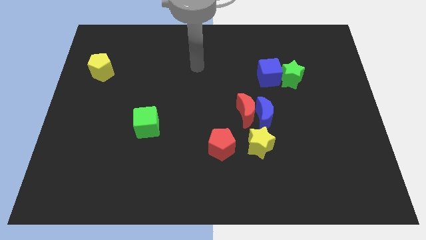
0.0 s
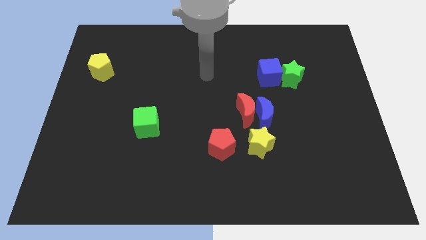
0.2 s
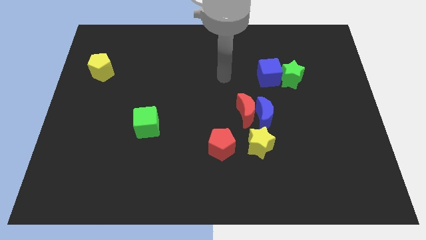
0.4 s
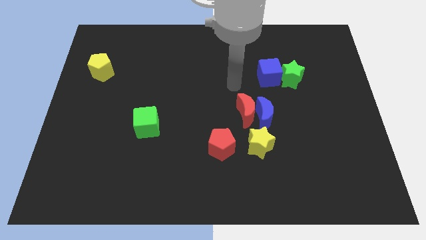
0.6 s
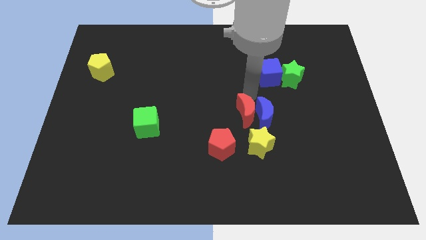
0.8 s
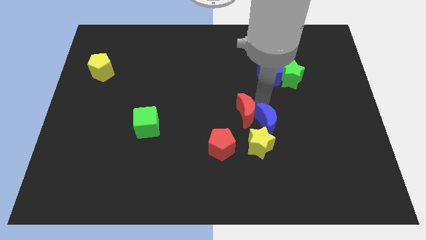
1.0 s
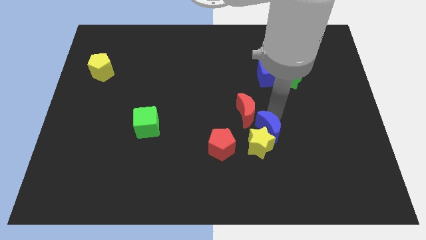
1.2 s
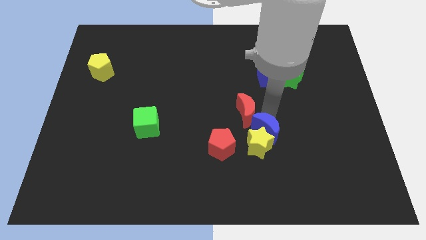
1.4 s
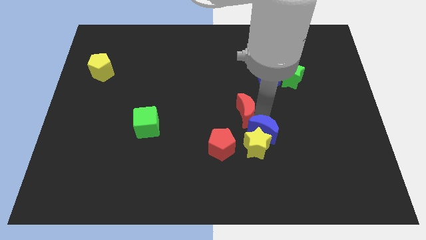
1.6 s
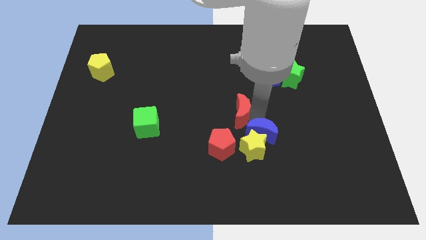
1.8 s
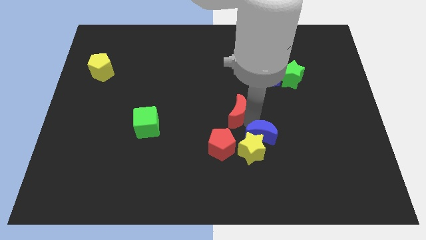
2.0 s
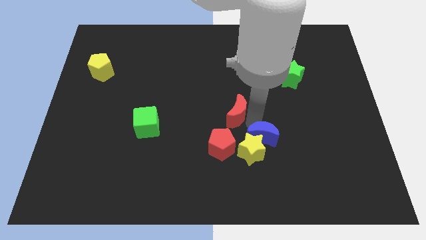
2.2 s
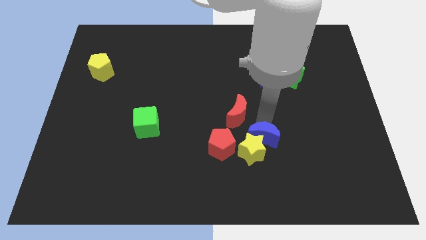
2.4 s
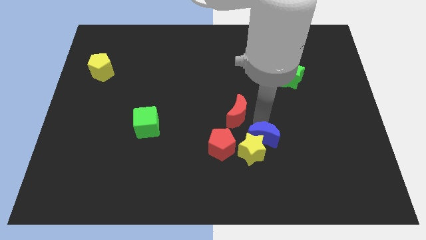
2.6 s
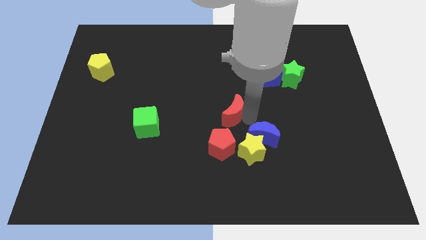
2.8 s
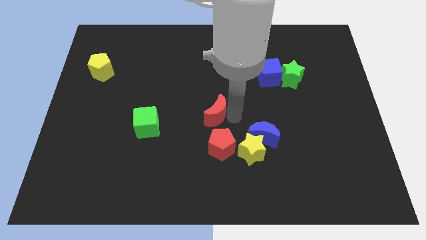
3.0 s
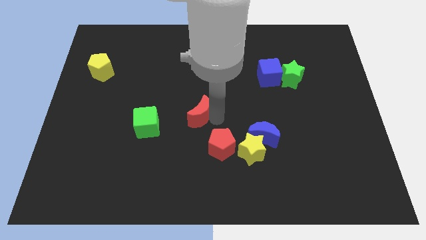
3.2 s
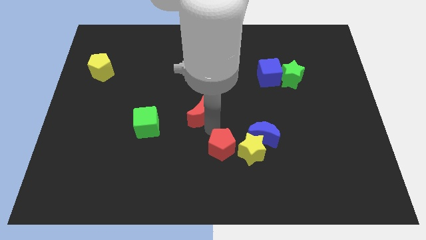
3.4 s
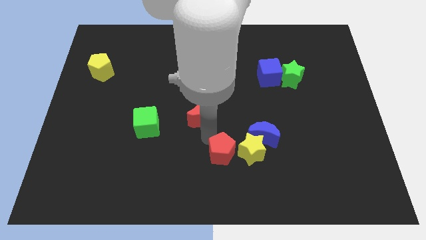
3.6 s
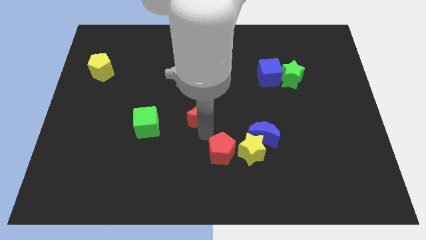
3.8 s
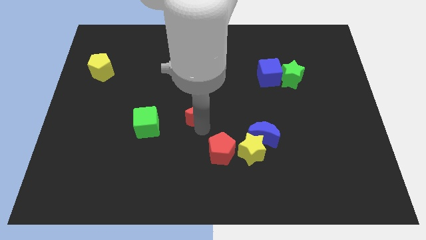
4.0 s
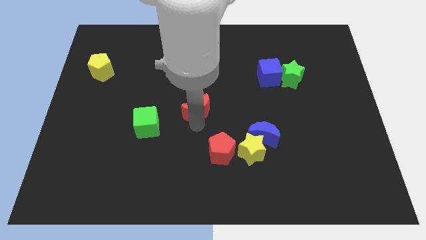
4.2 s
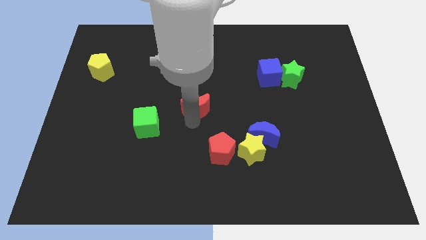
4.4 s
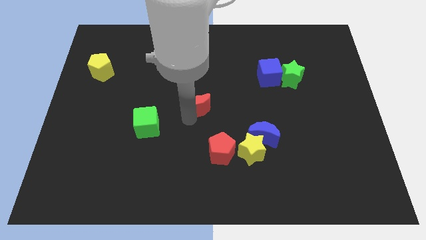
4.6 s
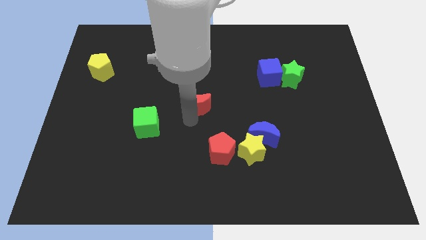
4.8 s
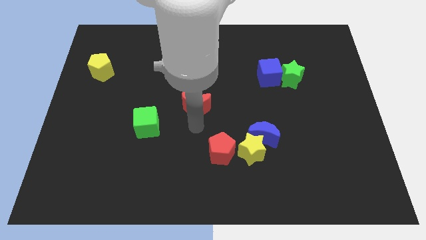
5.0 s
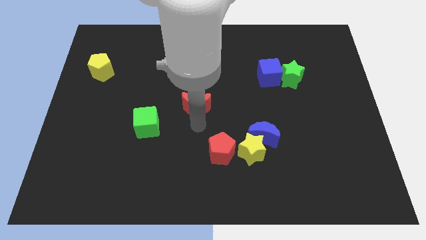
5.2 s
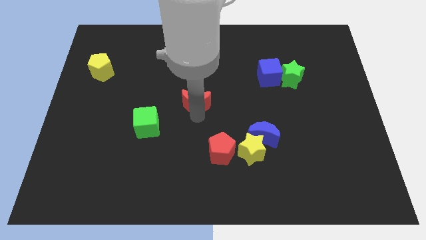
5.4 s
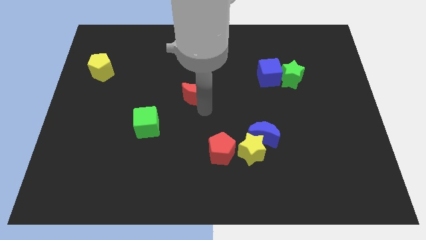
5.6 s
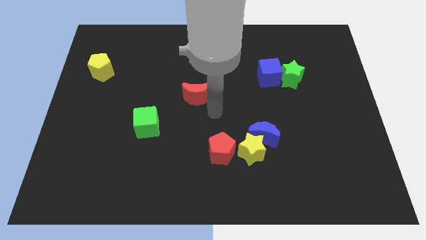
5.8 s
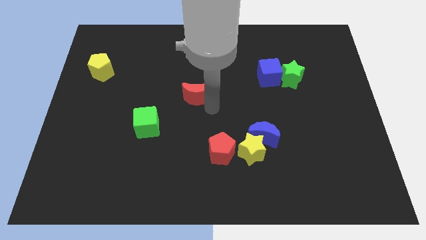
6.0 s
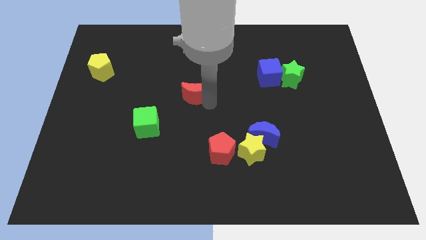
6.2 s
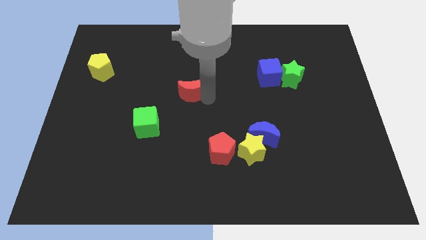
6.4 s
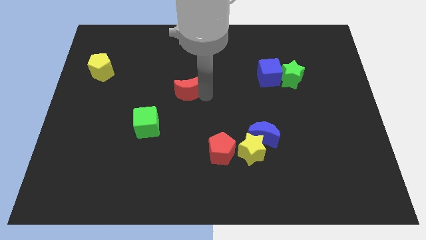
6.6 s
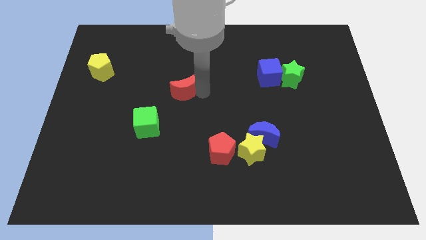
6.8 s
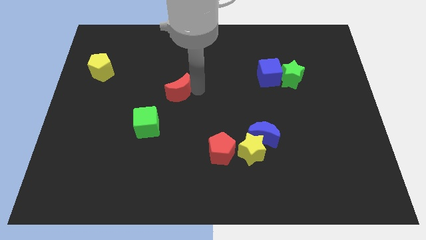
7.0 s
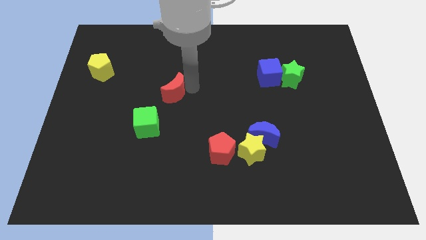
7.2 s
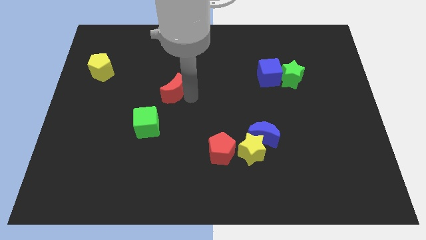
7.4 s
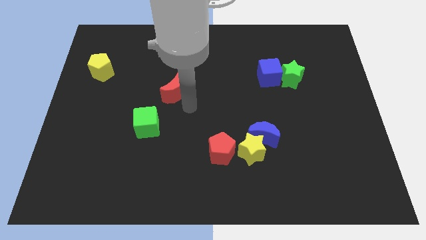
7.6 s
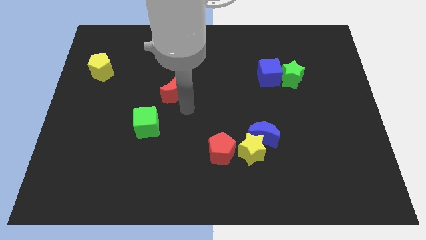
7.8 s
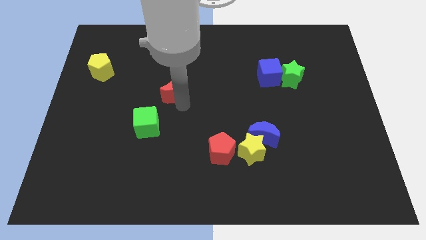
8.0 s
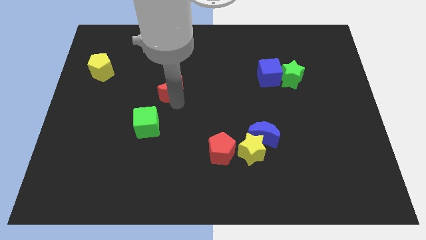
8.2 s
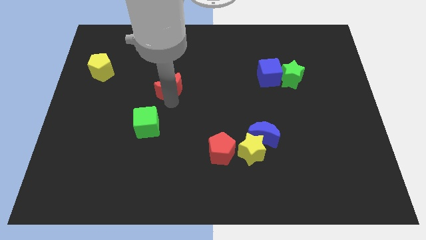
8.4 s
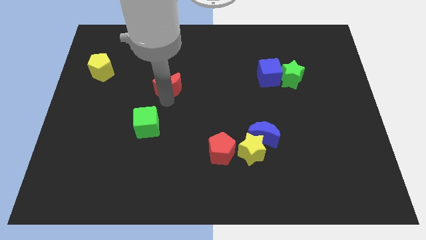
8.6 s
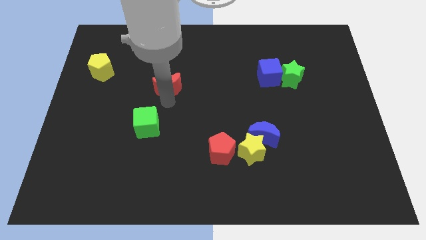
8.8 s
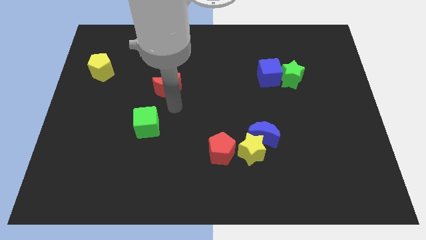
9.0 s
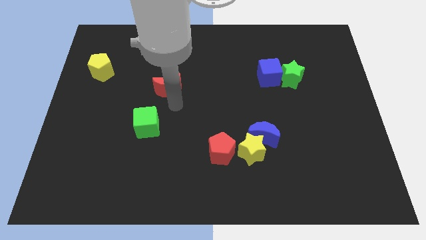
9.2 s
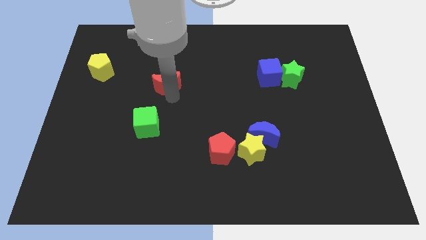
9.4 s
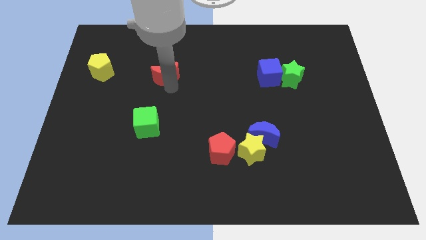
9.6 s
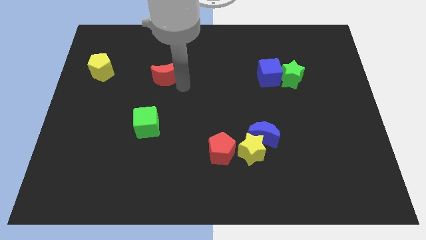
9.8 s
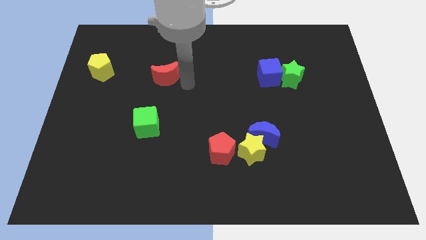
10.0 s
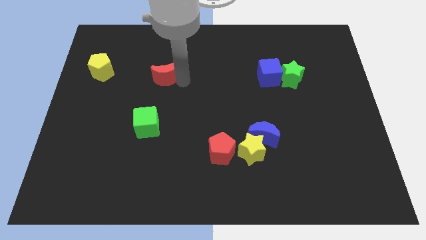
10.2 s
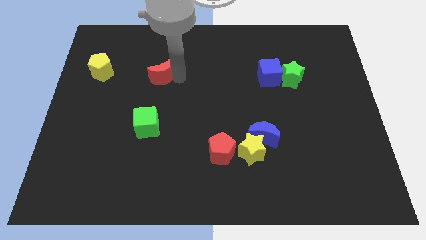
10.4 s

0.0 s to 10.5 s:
push the red moon just right of the yellow pentagon

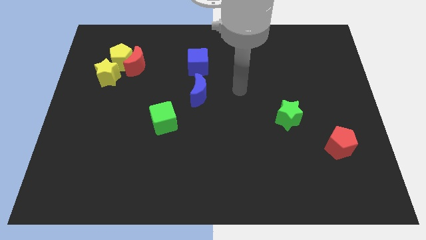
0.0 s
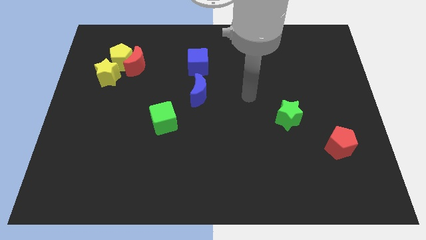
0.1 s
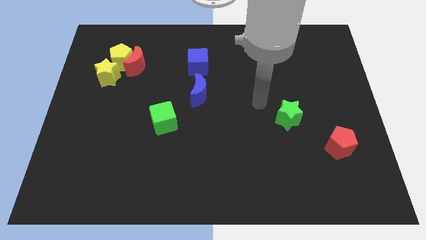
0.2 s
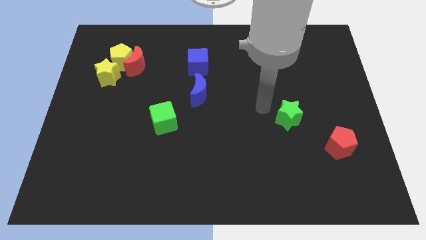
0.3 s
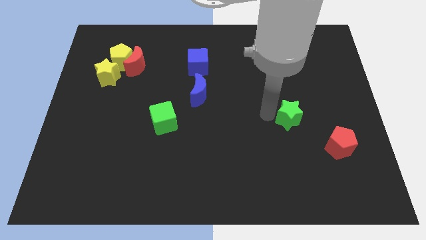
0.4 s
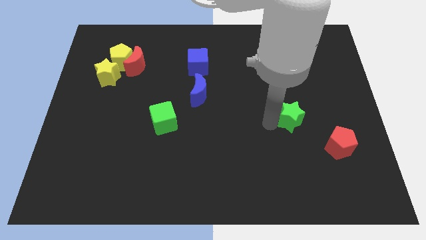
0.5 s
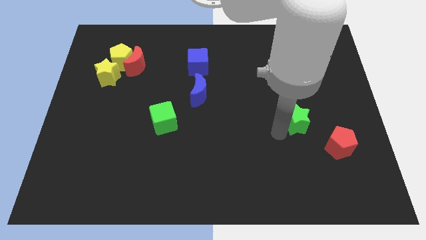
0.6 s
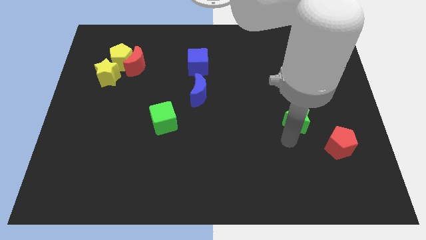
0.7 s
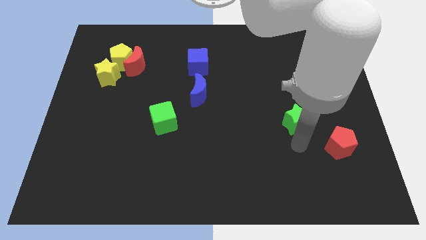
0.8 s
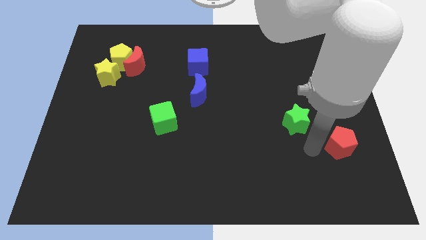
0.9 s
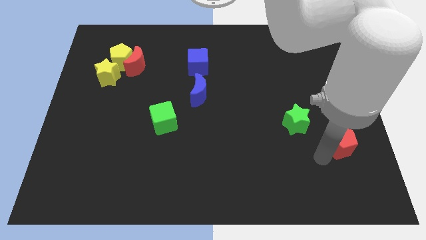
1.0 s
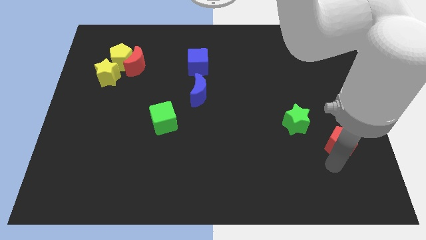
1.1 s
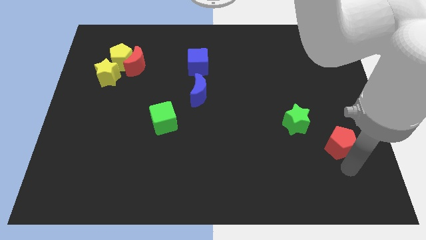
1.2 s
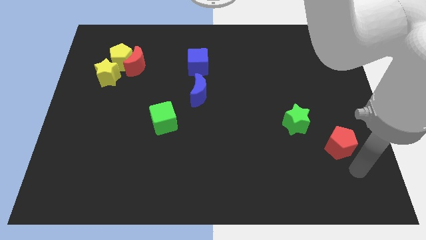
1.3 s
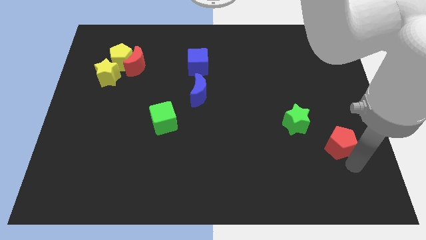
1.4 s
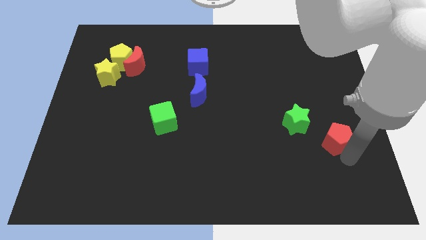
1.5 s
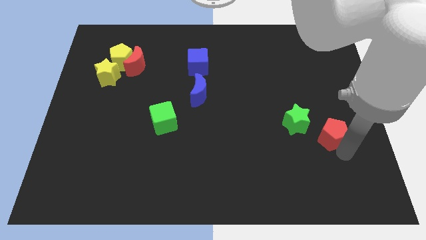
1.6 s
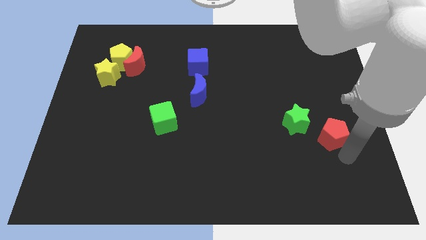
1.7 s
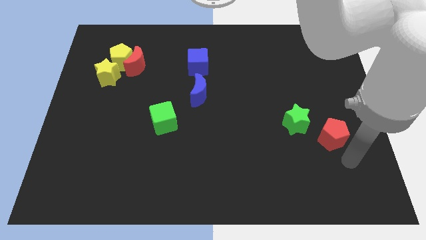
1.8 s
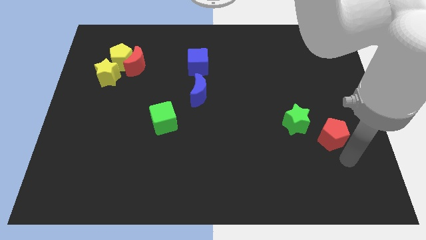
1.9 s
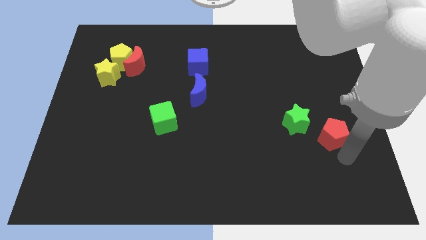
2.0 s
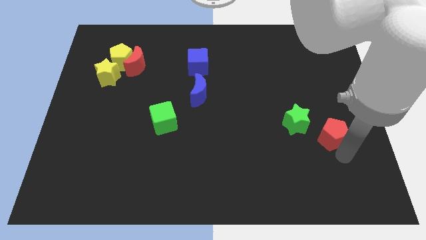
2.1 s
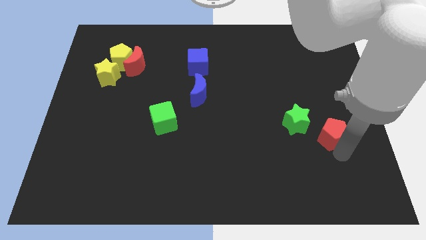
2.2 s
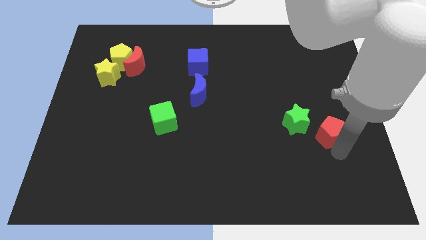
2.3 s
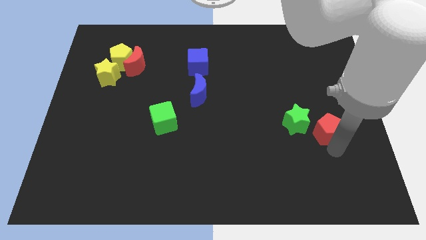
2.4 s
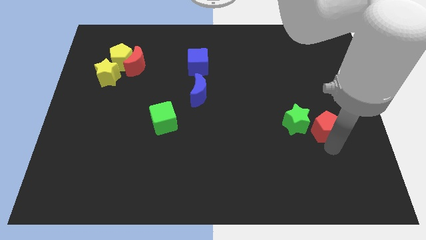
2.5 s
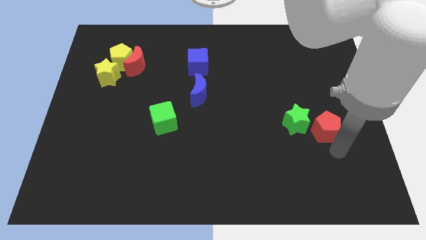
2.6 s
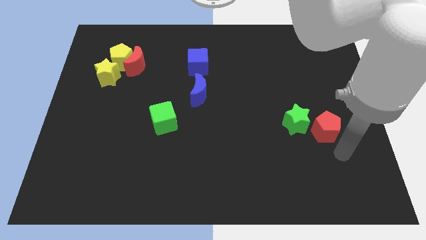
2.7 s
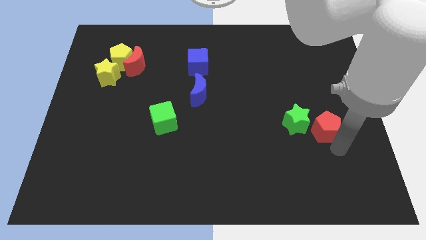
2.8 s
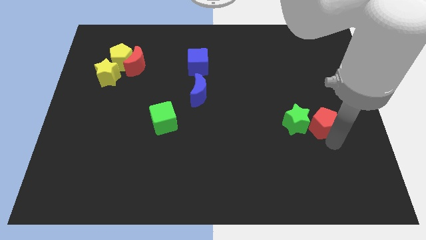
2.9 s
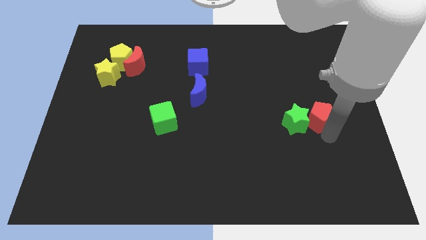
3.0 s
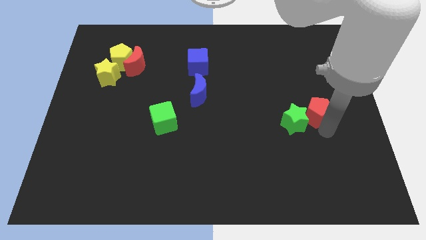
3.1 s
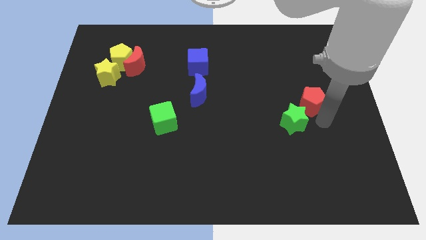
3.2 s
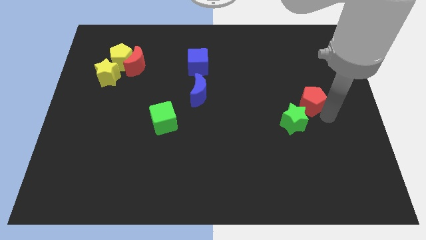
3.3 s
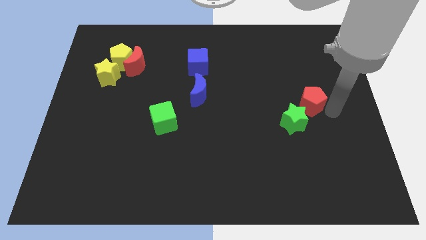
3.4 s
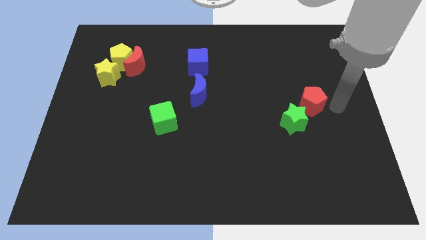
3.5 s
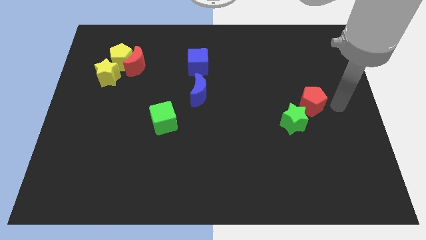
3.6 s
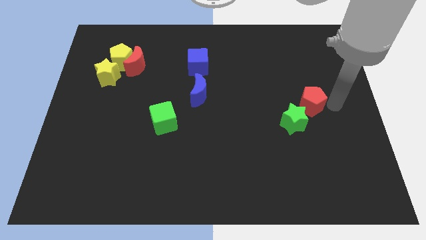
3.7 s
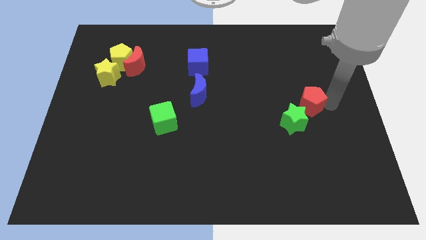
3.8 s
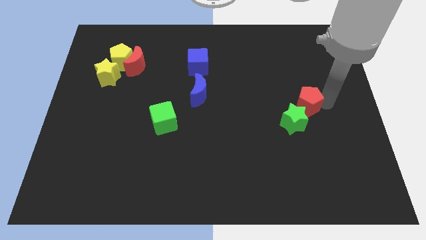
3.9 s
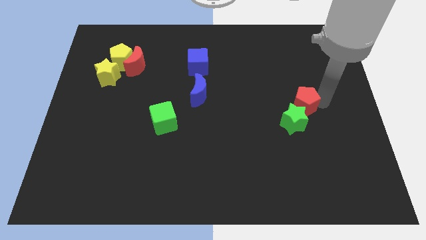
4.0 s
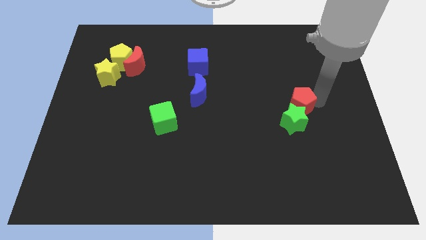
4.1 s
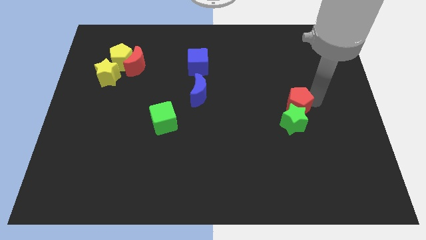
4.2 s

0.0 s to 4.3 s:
move the red pentagon diagonally up and to the left of the green star
